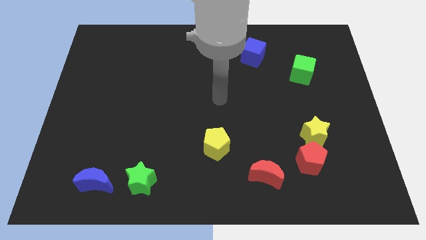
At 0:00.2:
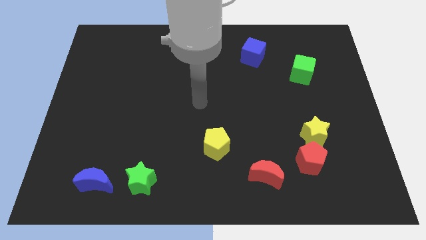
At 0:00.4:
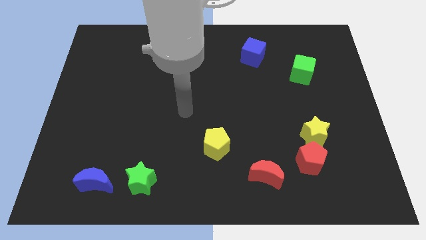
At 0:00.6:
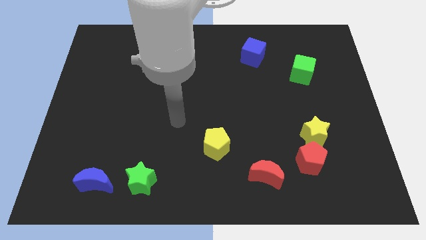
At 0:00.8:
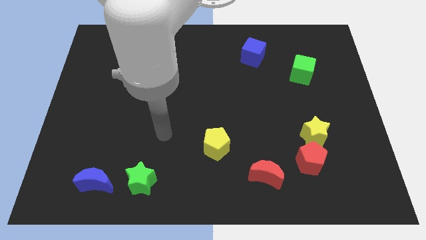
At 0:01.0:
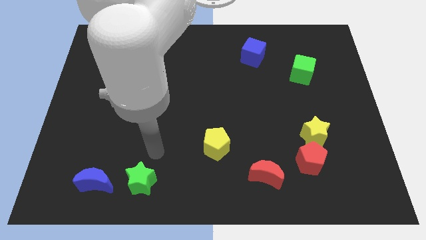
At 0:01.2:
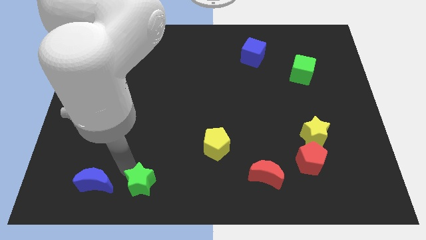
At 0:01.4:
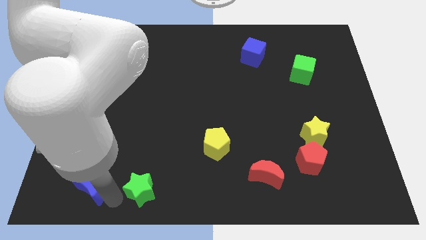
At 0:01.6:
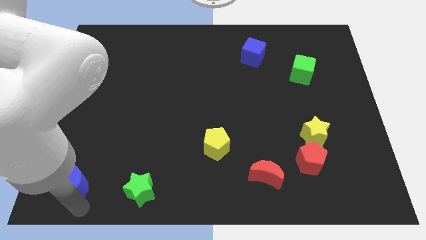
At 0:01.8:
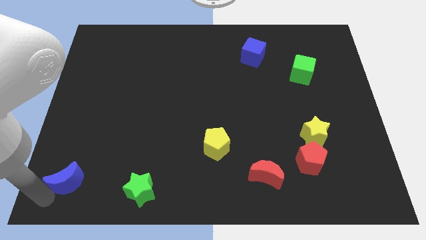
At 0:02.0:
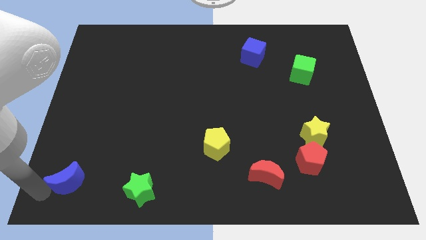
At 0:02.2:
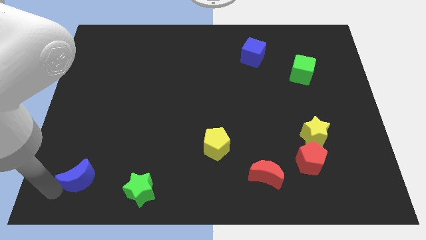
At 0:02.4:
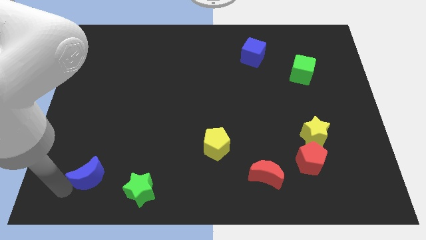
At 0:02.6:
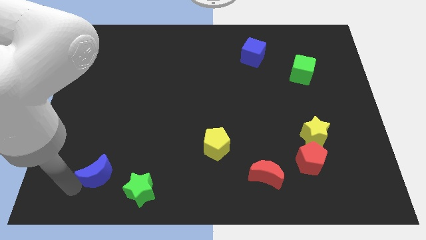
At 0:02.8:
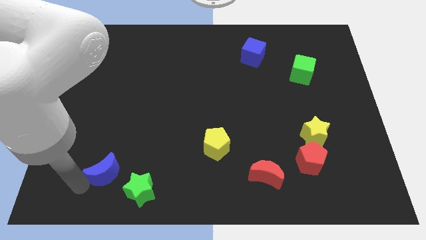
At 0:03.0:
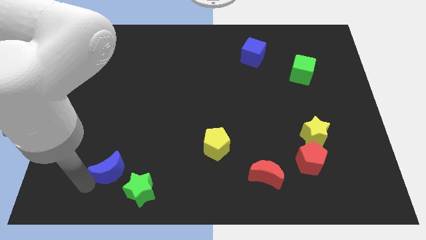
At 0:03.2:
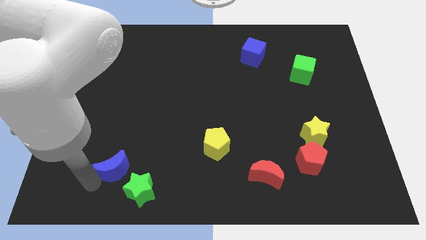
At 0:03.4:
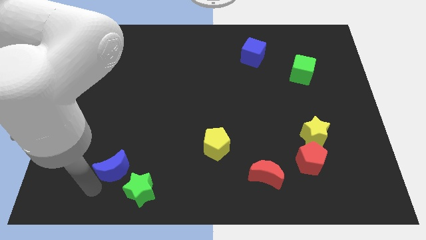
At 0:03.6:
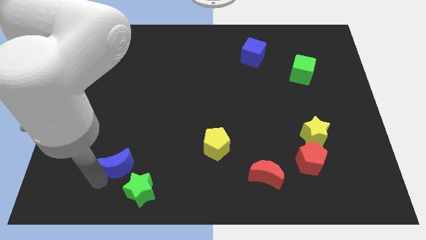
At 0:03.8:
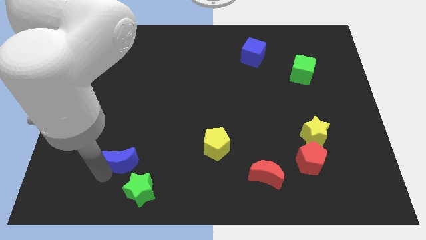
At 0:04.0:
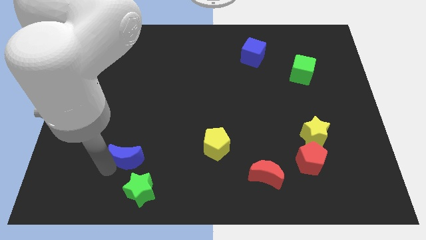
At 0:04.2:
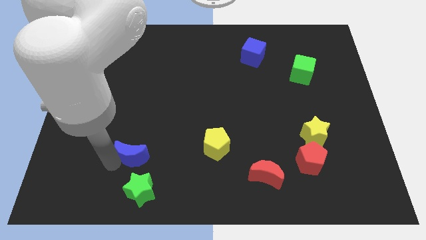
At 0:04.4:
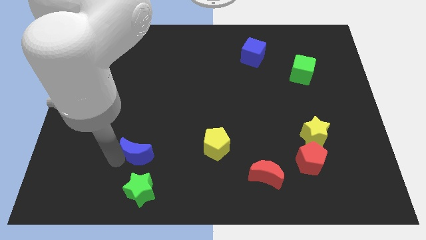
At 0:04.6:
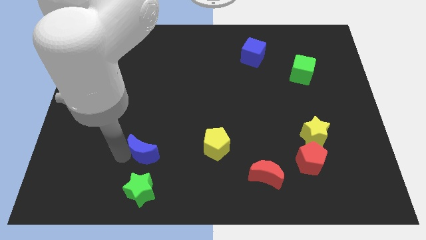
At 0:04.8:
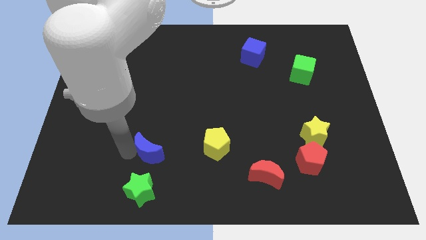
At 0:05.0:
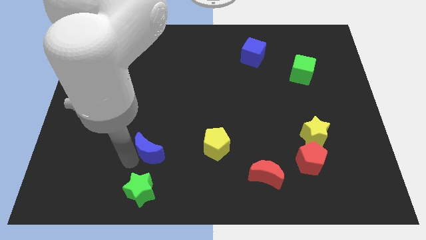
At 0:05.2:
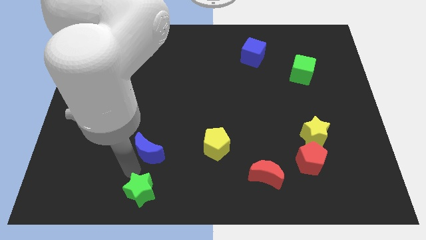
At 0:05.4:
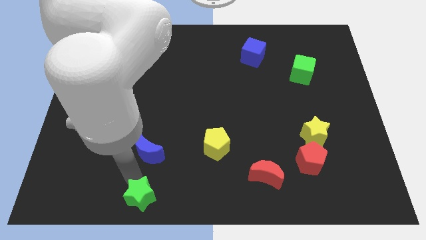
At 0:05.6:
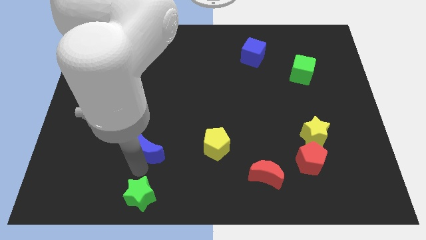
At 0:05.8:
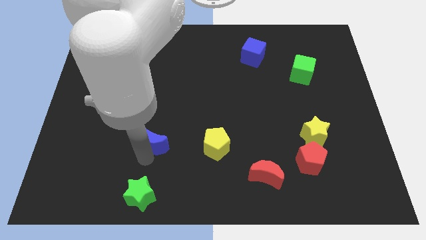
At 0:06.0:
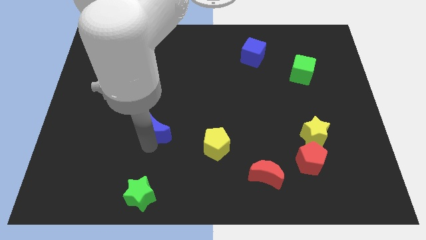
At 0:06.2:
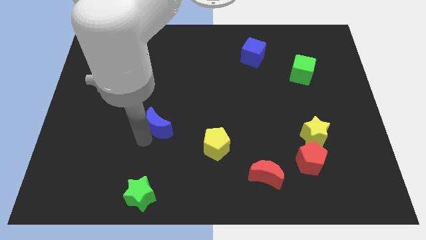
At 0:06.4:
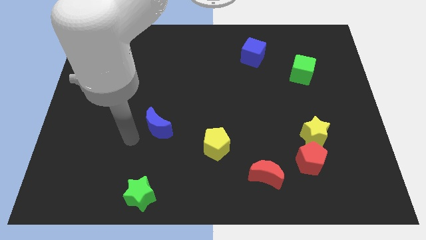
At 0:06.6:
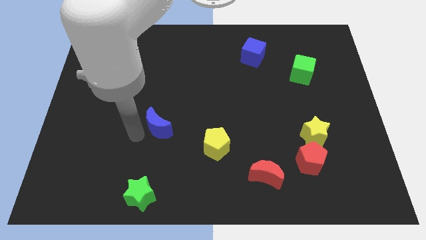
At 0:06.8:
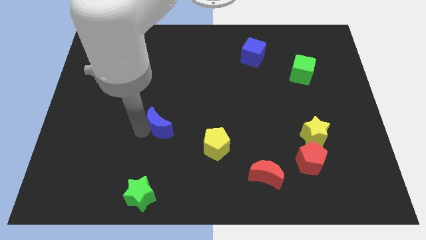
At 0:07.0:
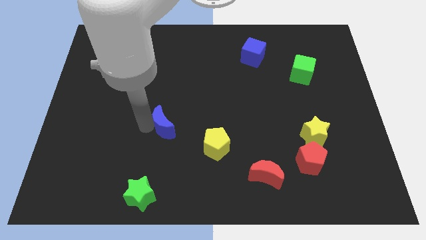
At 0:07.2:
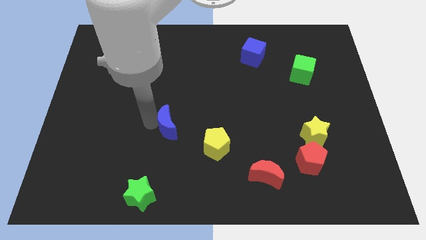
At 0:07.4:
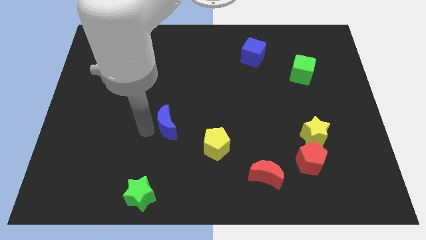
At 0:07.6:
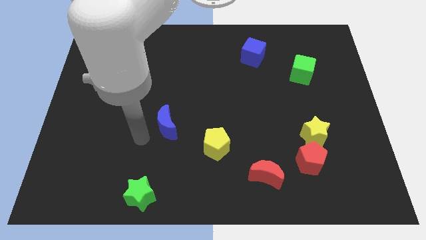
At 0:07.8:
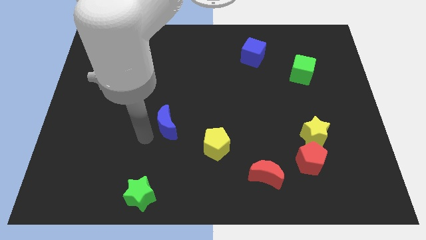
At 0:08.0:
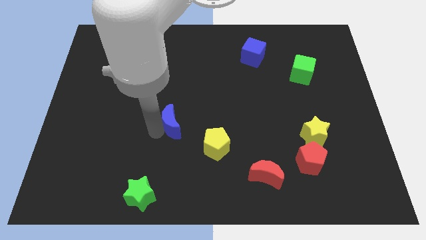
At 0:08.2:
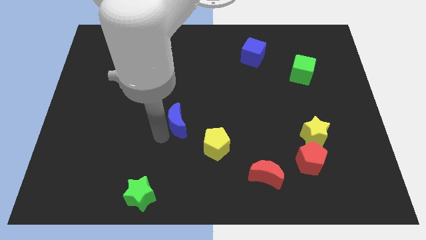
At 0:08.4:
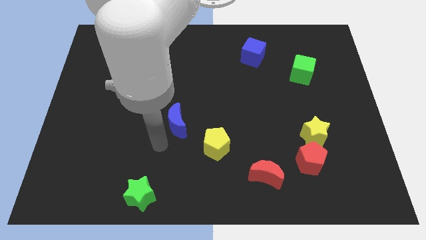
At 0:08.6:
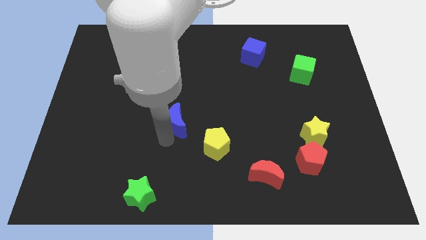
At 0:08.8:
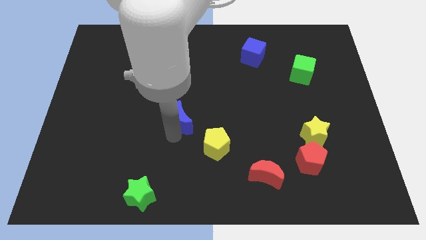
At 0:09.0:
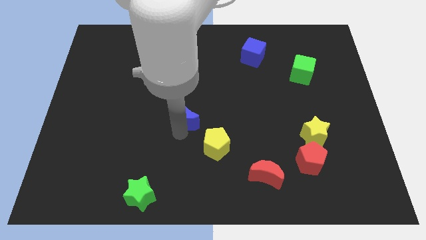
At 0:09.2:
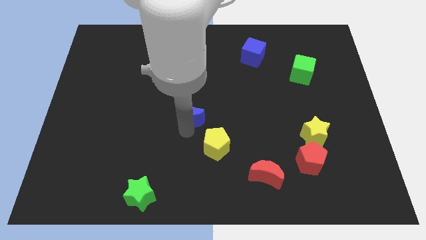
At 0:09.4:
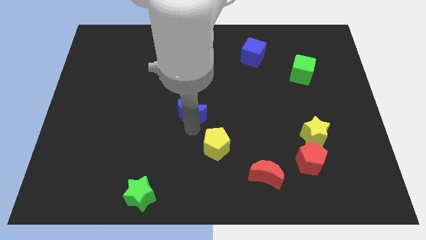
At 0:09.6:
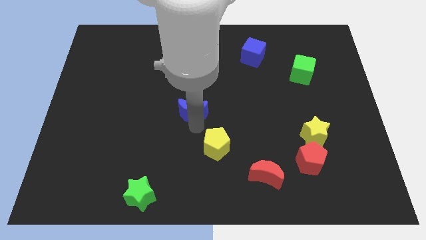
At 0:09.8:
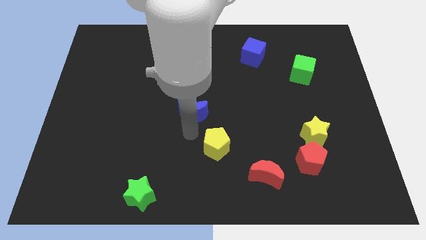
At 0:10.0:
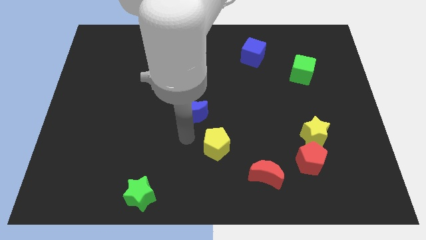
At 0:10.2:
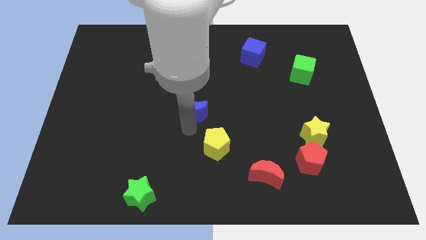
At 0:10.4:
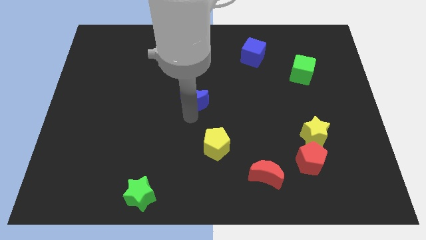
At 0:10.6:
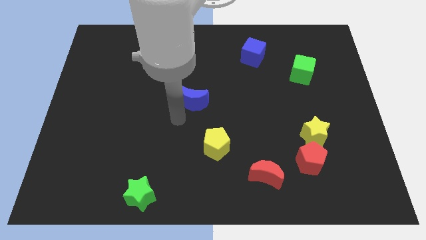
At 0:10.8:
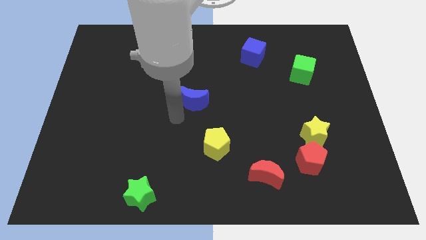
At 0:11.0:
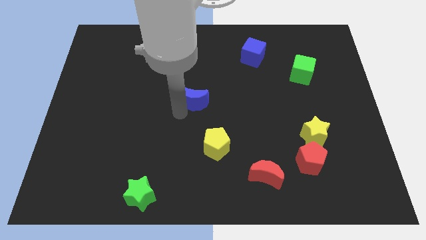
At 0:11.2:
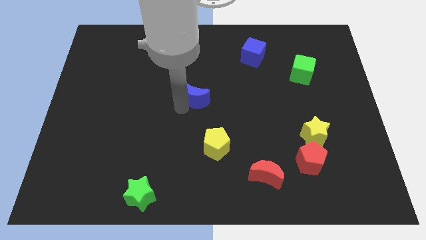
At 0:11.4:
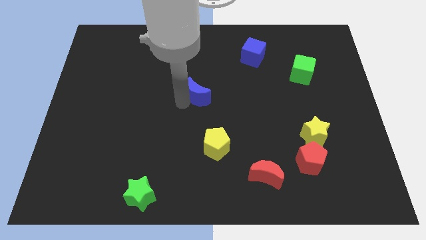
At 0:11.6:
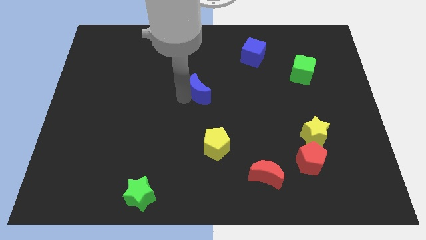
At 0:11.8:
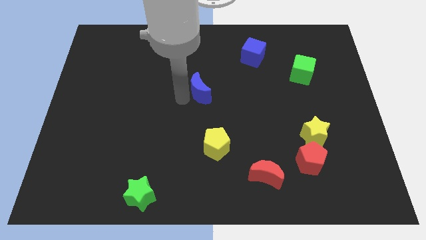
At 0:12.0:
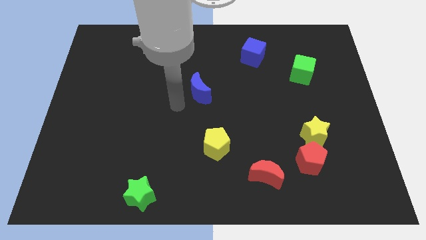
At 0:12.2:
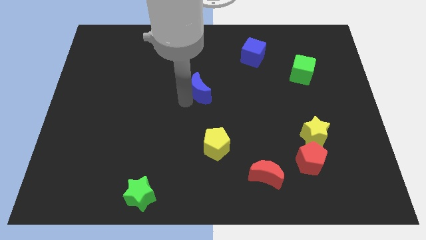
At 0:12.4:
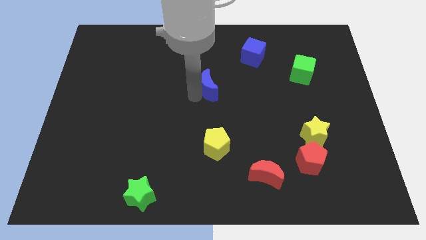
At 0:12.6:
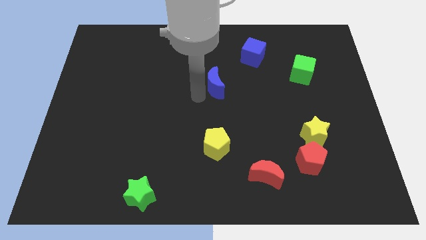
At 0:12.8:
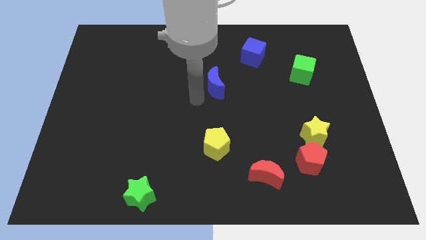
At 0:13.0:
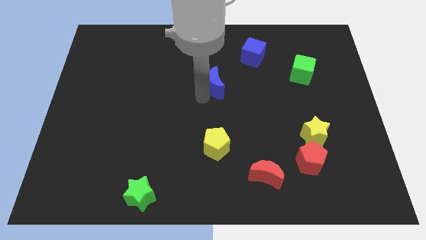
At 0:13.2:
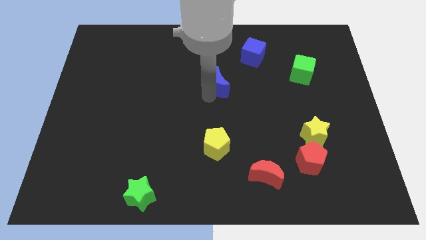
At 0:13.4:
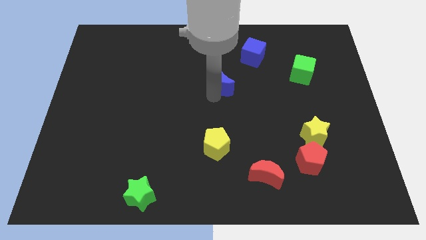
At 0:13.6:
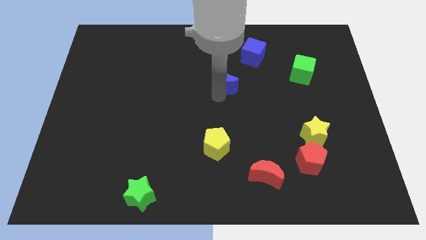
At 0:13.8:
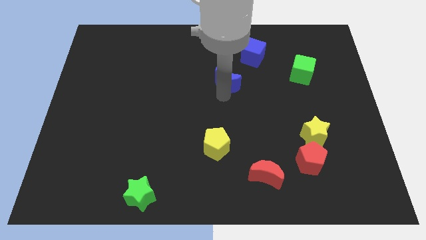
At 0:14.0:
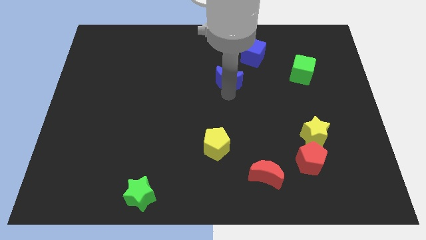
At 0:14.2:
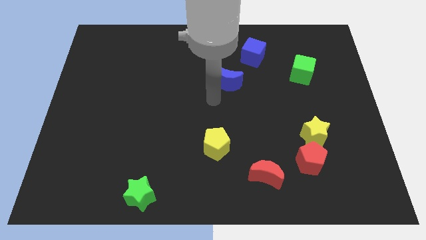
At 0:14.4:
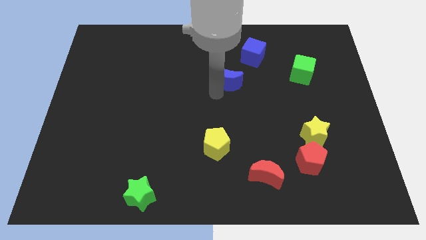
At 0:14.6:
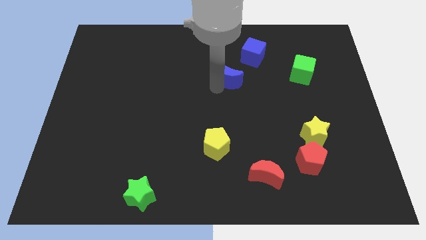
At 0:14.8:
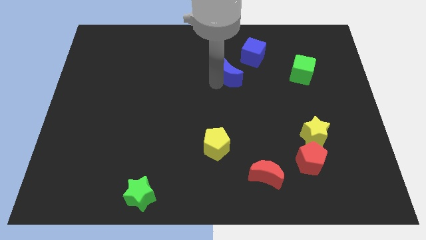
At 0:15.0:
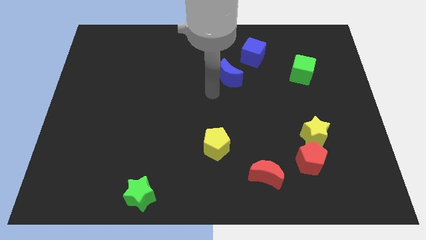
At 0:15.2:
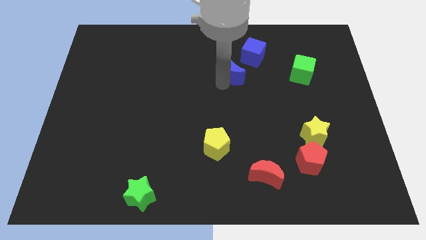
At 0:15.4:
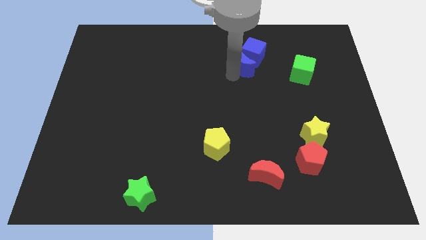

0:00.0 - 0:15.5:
put the blue moon to the blue cube

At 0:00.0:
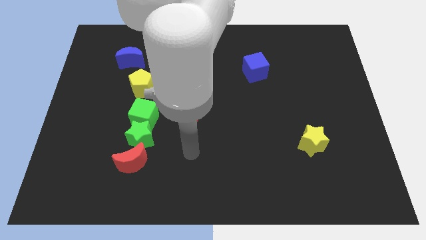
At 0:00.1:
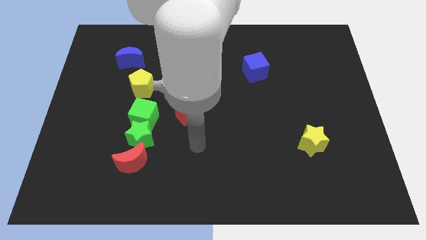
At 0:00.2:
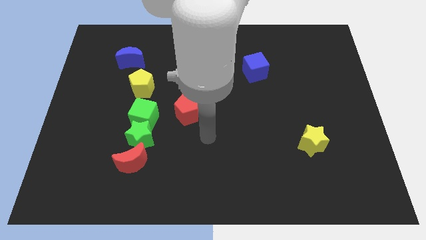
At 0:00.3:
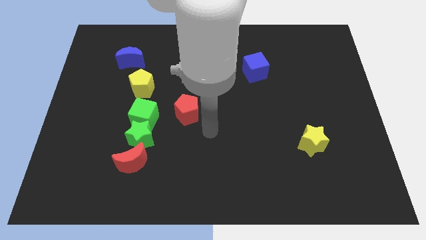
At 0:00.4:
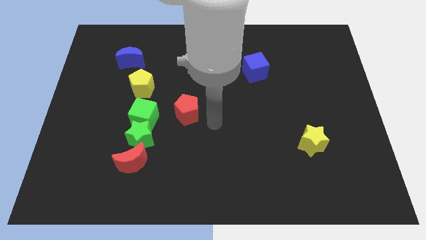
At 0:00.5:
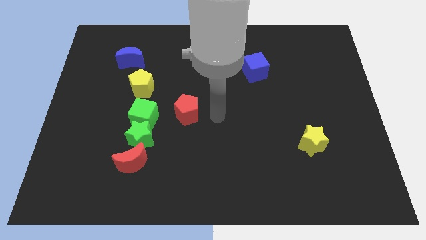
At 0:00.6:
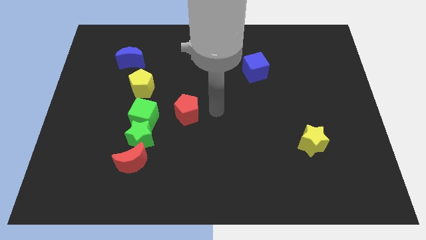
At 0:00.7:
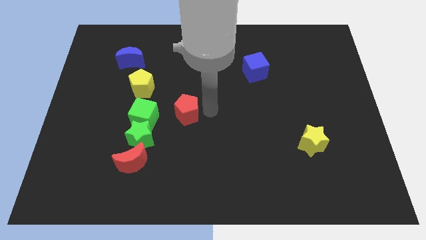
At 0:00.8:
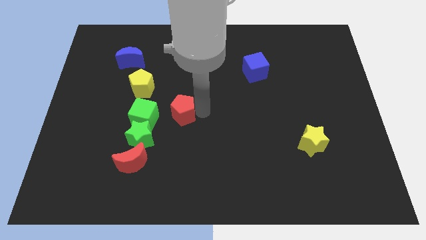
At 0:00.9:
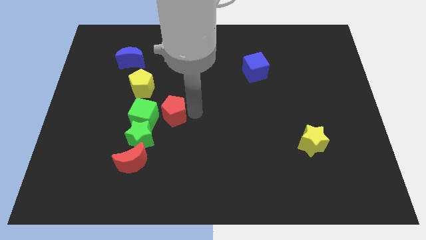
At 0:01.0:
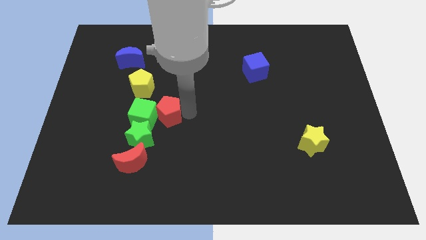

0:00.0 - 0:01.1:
put the red pentagon towards the green cube
